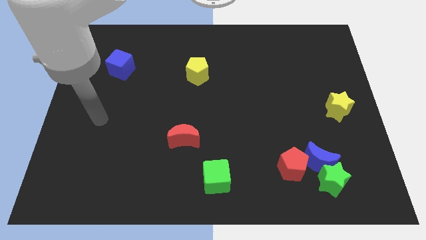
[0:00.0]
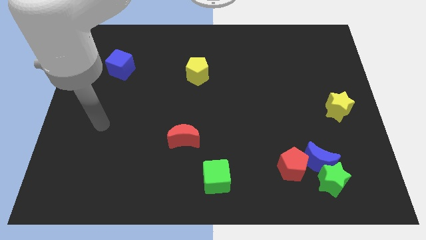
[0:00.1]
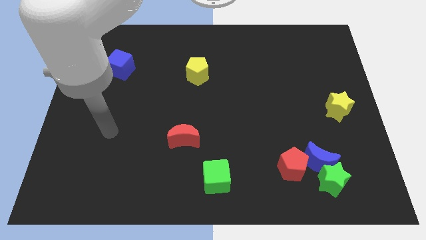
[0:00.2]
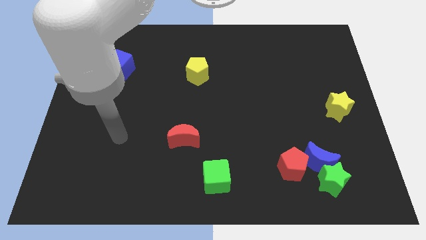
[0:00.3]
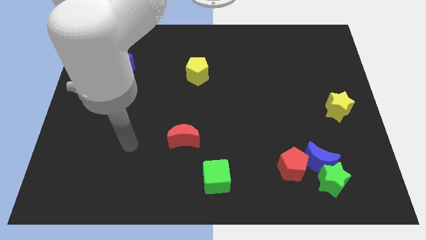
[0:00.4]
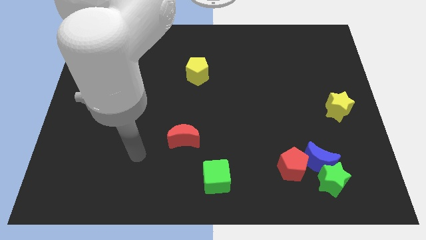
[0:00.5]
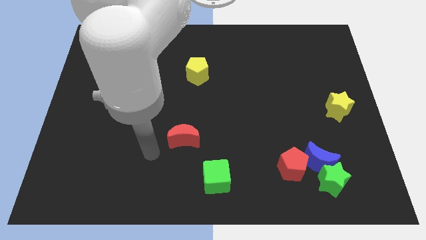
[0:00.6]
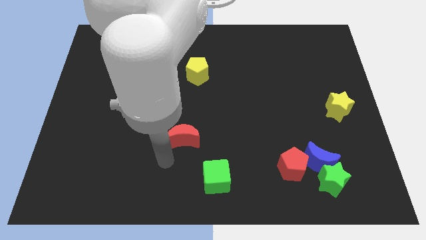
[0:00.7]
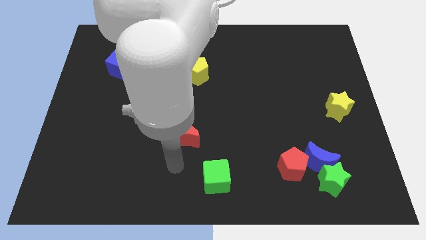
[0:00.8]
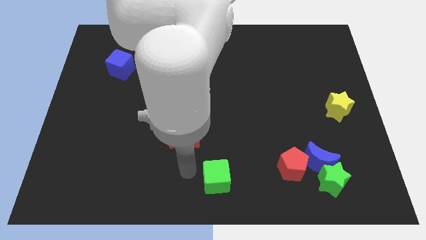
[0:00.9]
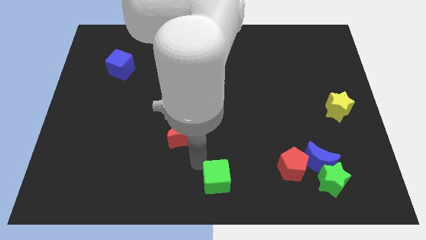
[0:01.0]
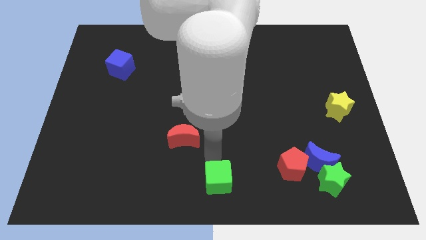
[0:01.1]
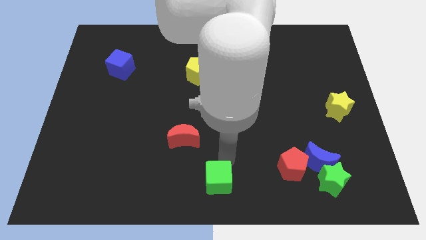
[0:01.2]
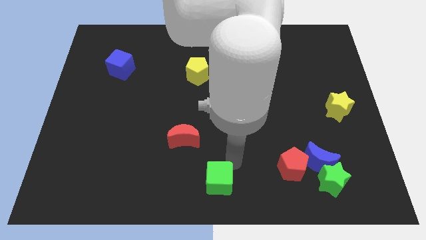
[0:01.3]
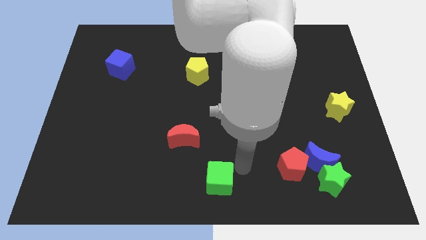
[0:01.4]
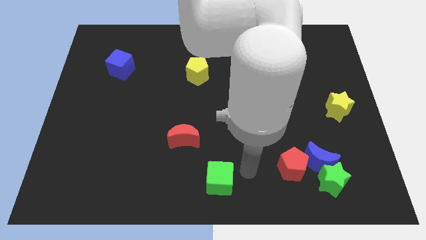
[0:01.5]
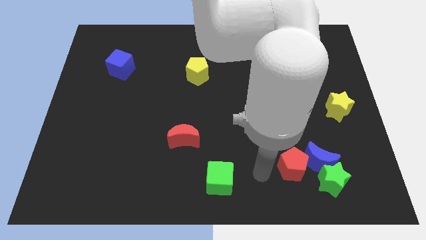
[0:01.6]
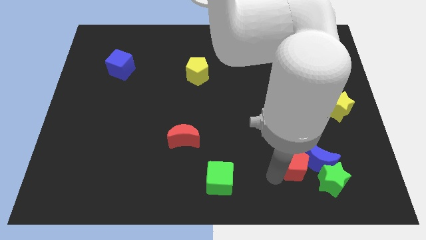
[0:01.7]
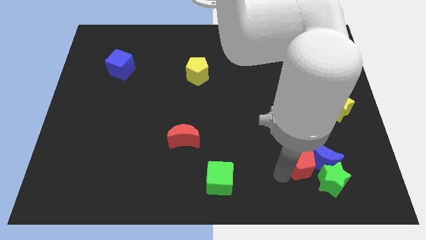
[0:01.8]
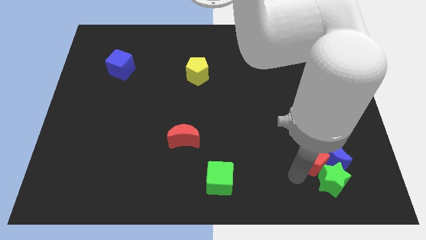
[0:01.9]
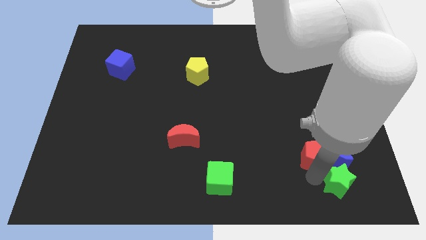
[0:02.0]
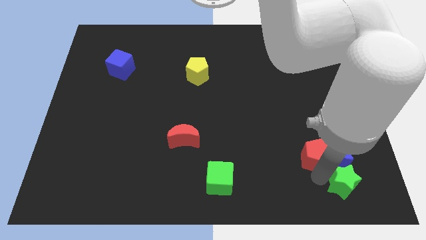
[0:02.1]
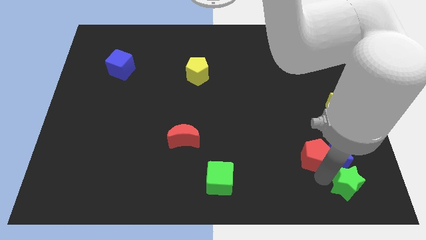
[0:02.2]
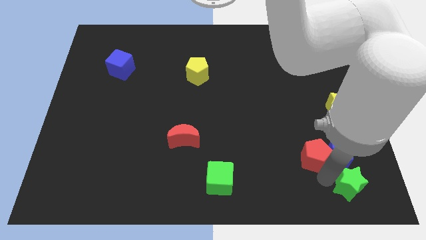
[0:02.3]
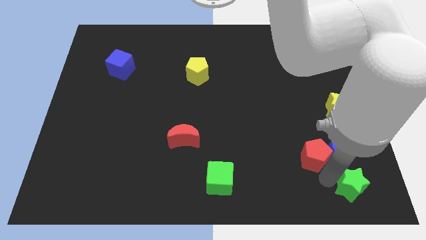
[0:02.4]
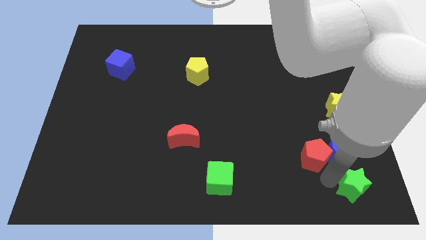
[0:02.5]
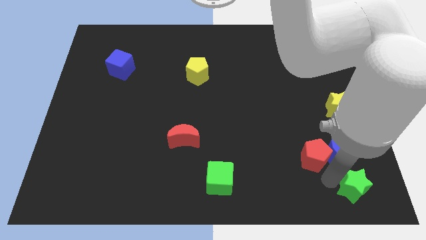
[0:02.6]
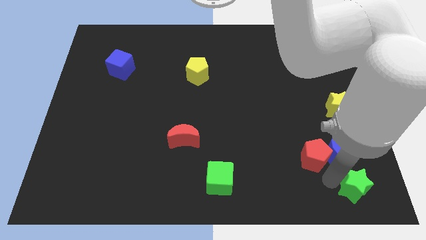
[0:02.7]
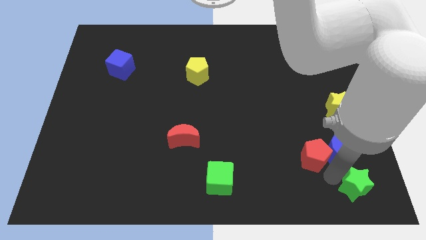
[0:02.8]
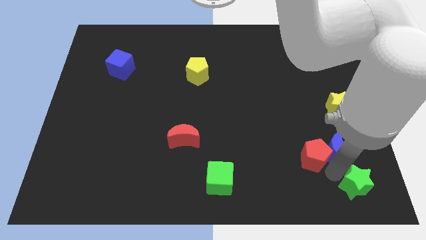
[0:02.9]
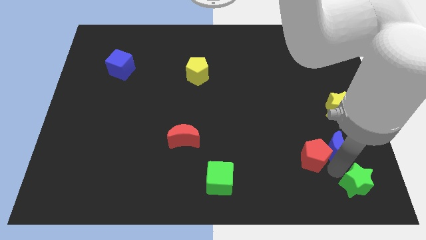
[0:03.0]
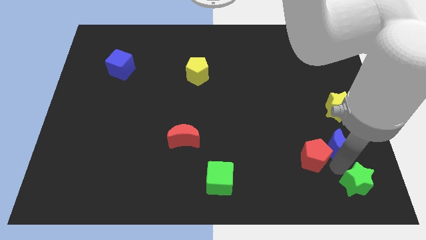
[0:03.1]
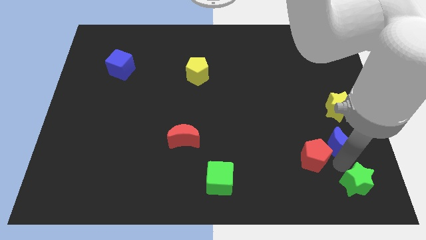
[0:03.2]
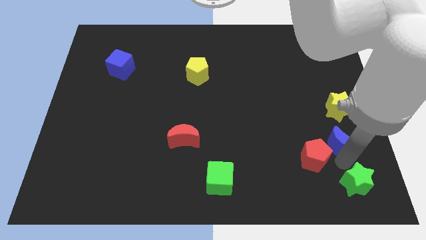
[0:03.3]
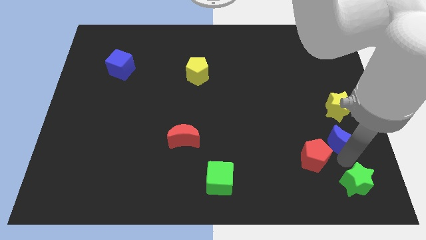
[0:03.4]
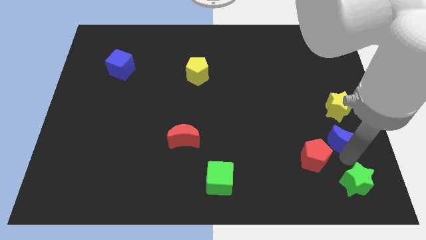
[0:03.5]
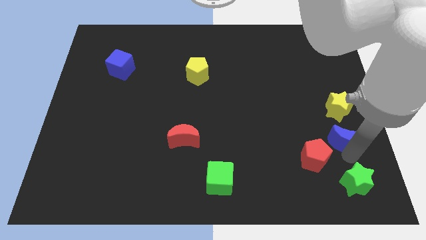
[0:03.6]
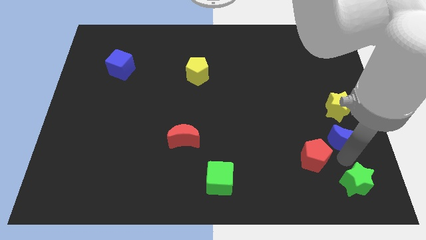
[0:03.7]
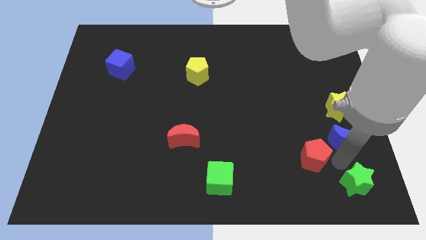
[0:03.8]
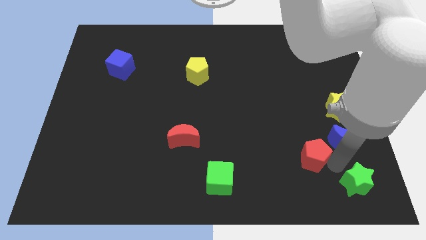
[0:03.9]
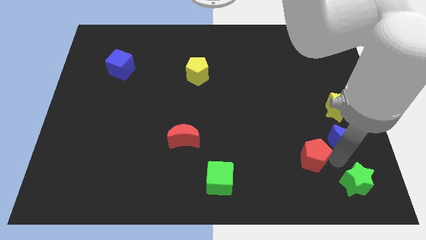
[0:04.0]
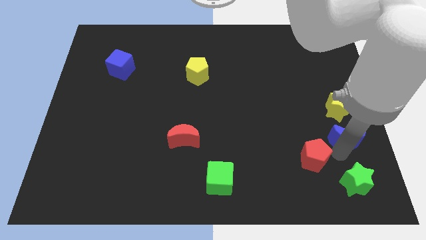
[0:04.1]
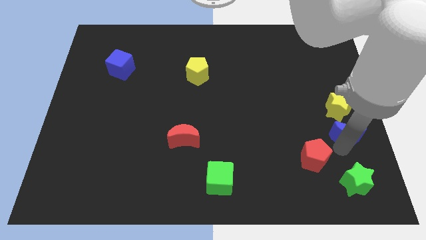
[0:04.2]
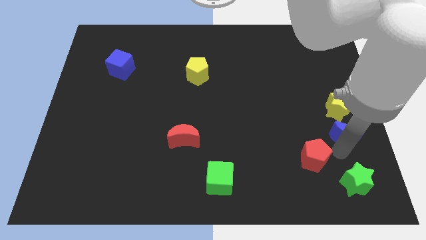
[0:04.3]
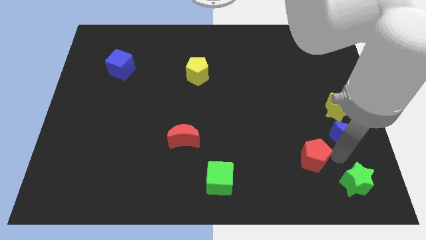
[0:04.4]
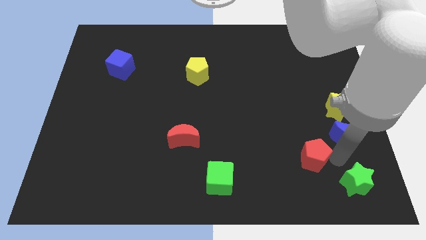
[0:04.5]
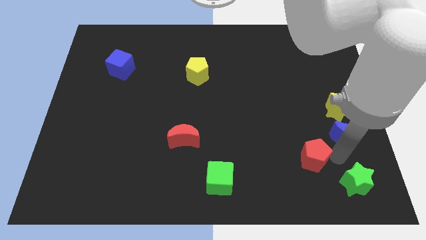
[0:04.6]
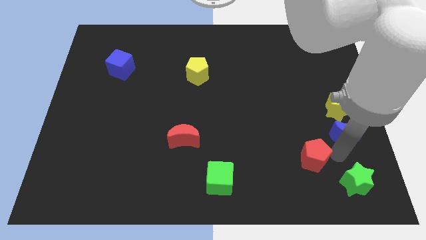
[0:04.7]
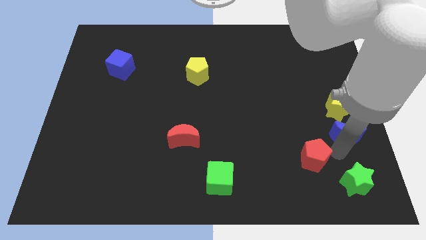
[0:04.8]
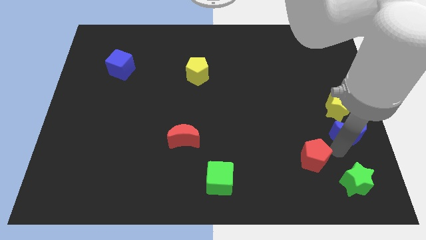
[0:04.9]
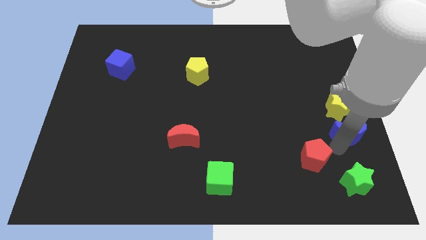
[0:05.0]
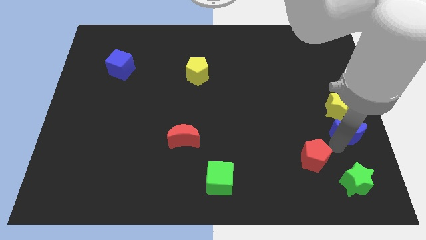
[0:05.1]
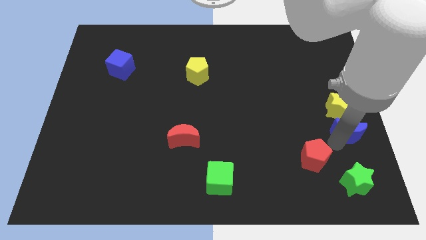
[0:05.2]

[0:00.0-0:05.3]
pull the blue moon apart from the green star and red pentagon

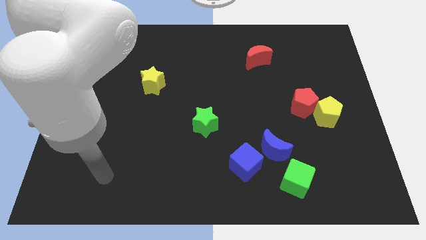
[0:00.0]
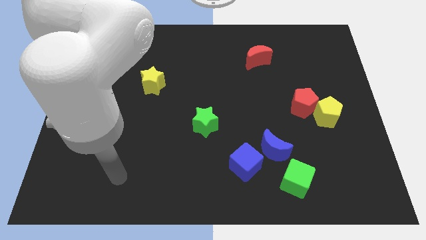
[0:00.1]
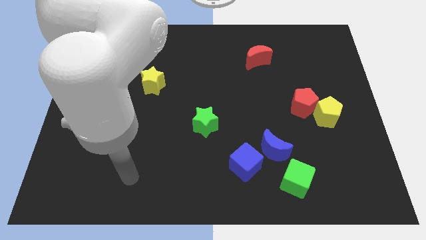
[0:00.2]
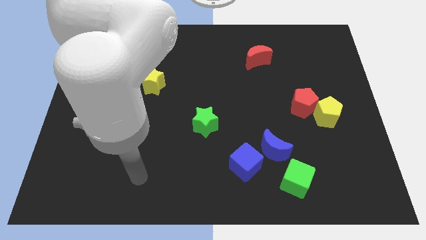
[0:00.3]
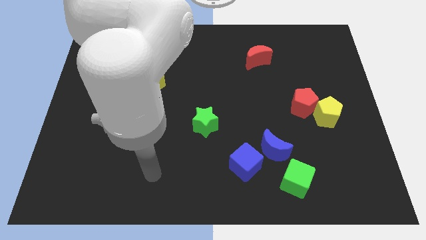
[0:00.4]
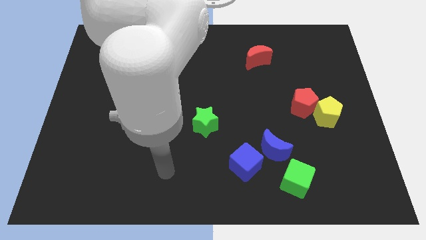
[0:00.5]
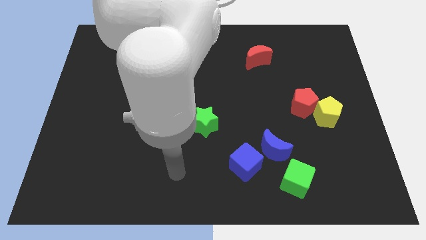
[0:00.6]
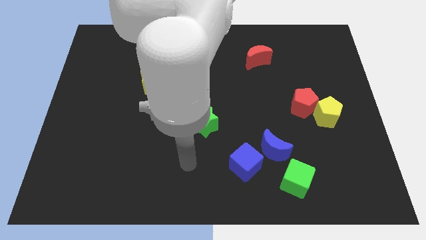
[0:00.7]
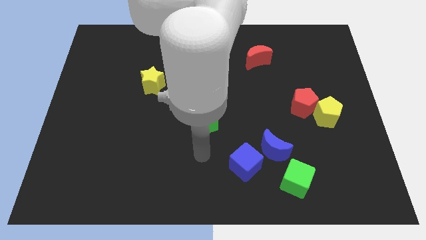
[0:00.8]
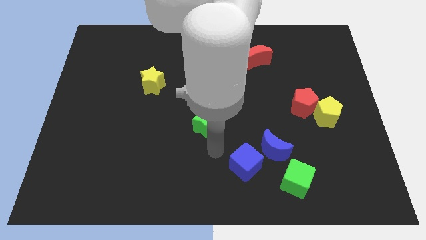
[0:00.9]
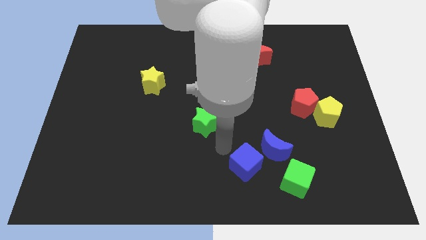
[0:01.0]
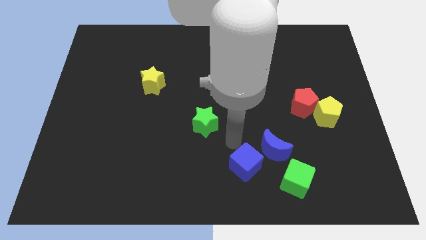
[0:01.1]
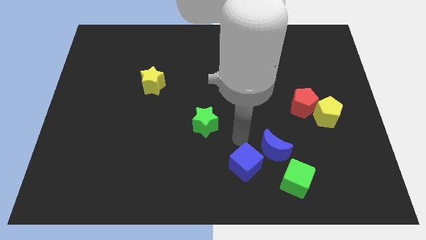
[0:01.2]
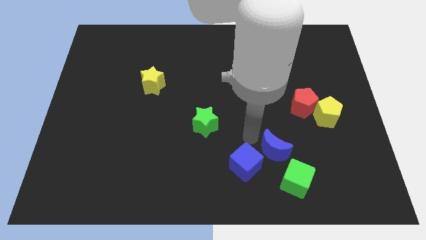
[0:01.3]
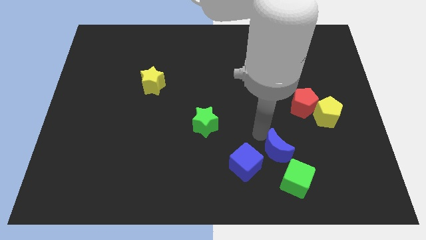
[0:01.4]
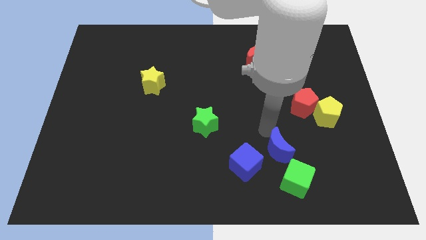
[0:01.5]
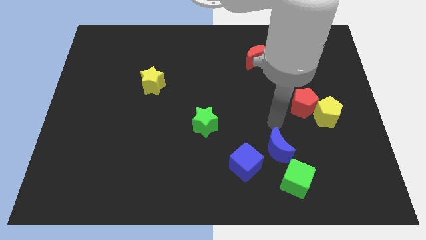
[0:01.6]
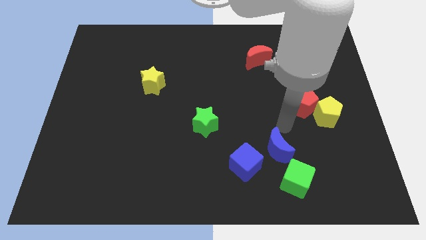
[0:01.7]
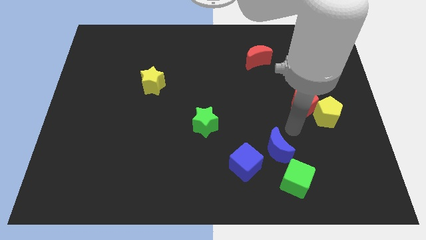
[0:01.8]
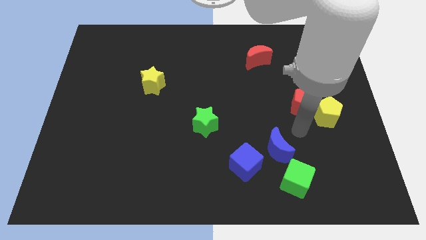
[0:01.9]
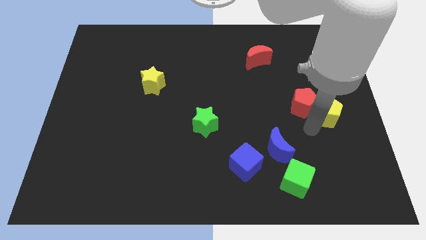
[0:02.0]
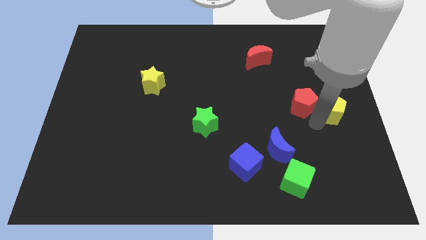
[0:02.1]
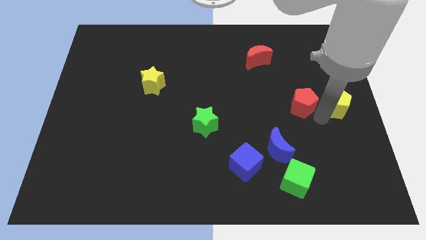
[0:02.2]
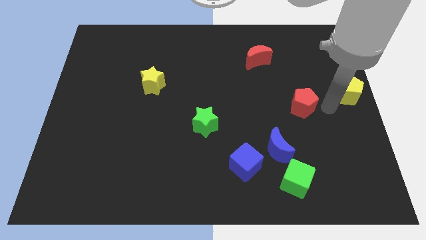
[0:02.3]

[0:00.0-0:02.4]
separate the red pentagon from the yellow pentagon

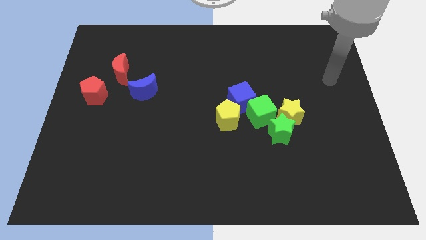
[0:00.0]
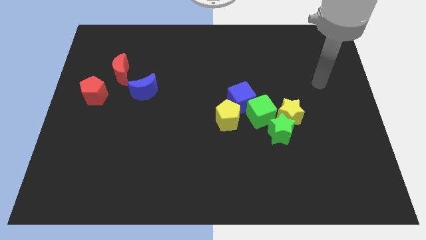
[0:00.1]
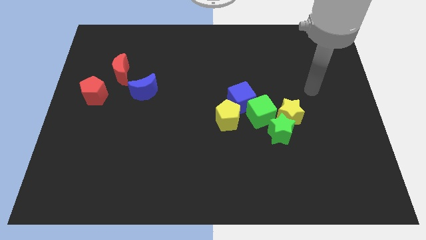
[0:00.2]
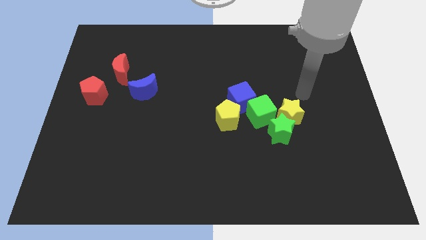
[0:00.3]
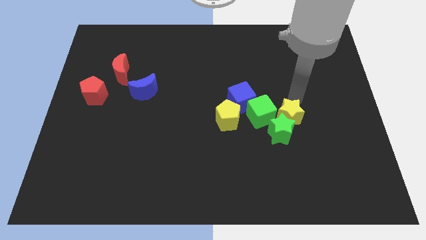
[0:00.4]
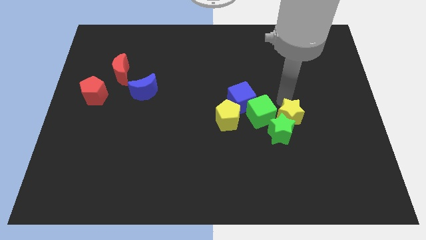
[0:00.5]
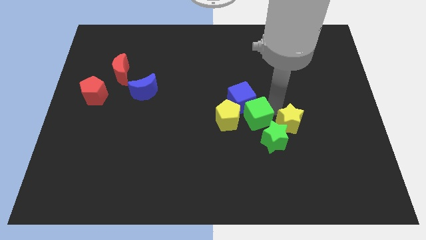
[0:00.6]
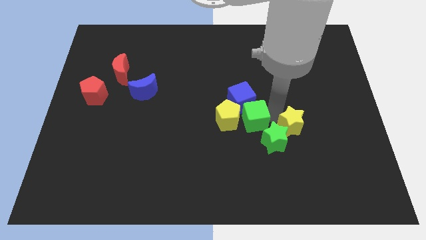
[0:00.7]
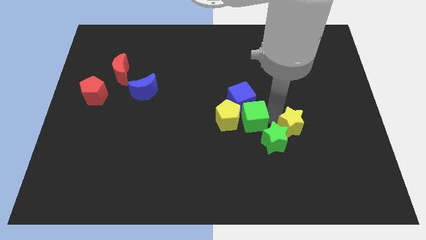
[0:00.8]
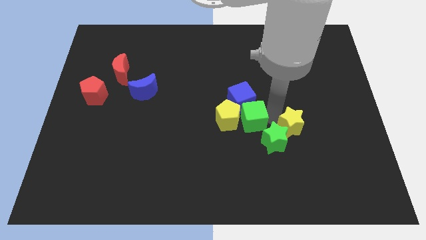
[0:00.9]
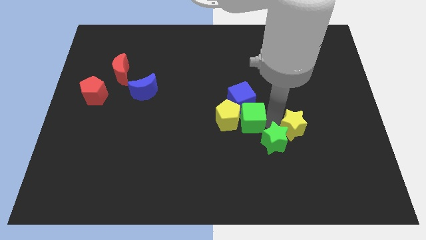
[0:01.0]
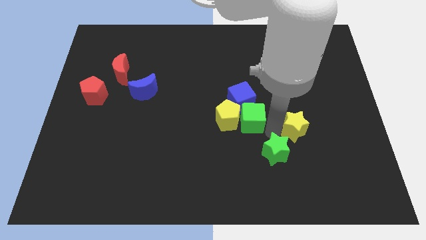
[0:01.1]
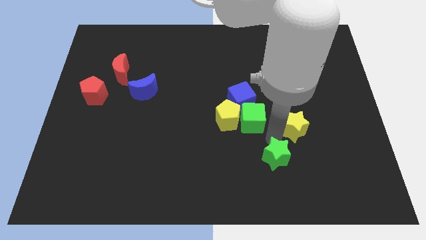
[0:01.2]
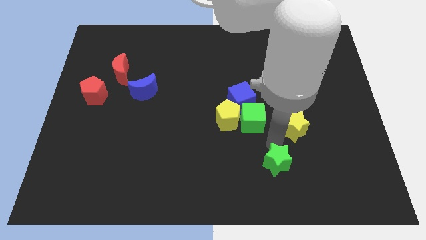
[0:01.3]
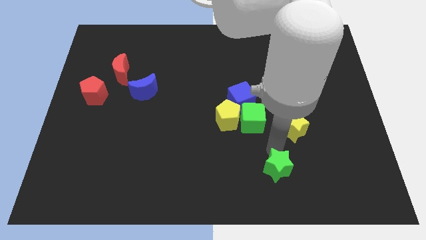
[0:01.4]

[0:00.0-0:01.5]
pull the green star apart from the yellow star and green cube

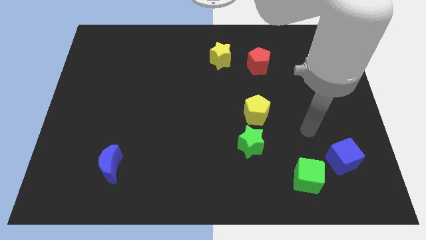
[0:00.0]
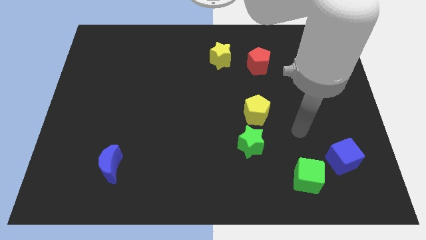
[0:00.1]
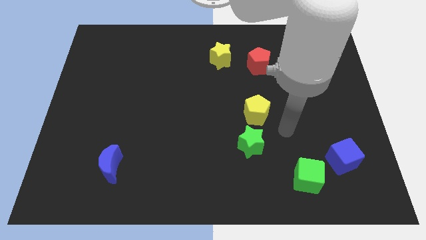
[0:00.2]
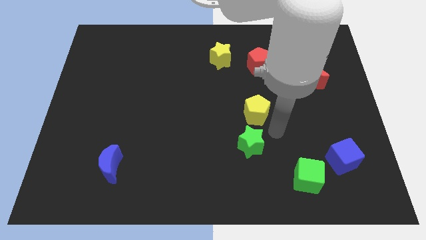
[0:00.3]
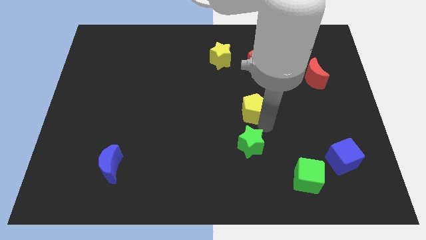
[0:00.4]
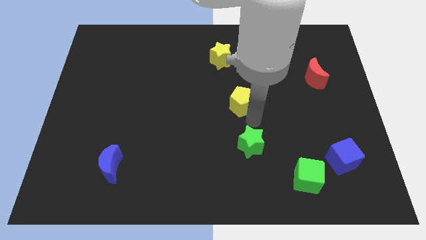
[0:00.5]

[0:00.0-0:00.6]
separate the green star from the yellow pentagon
